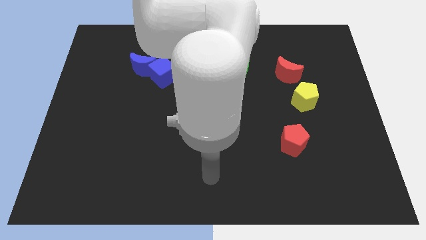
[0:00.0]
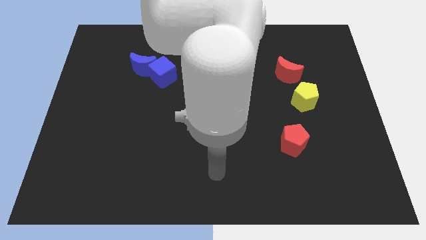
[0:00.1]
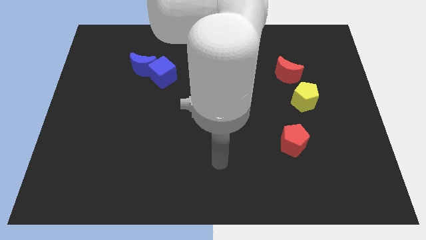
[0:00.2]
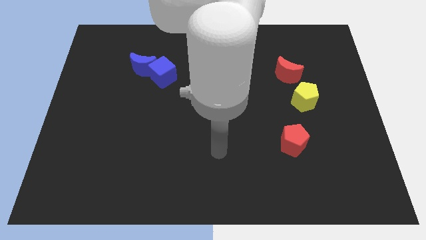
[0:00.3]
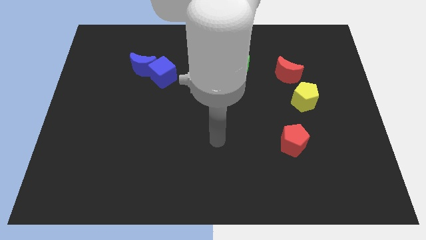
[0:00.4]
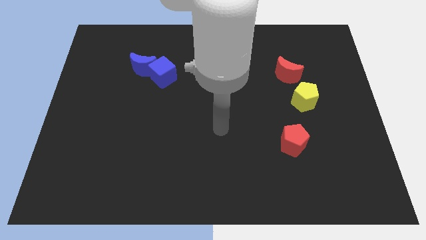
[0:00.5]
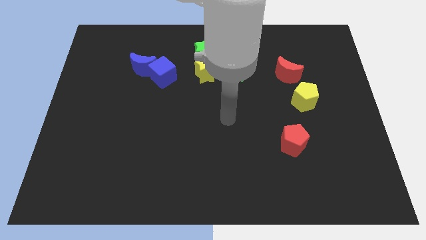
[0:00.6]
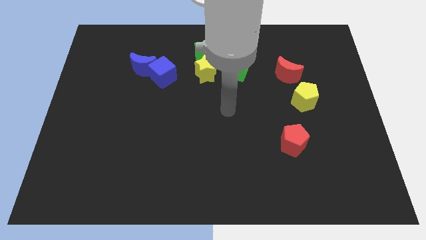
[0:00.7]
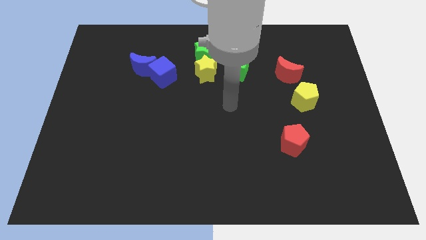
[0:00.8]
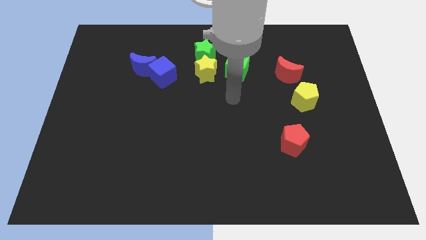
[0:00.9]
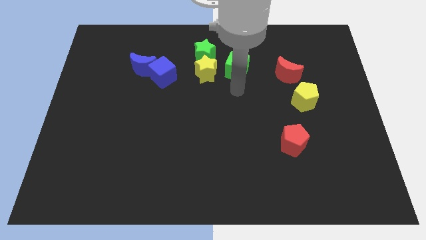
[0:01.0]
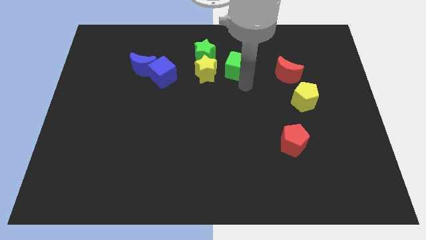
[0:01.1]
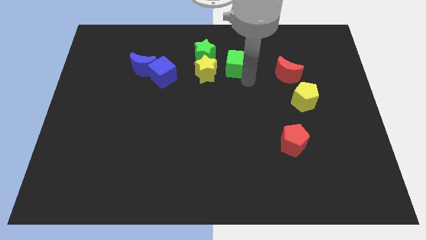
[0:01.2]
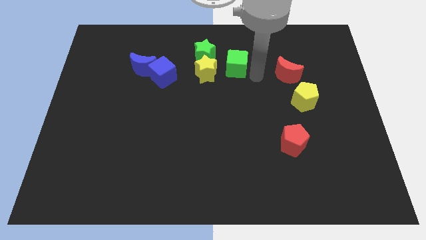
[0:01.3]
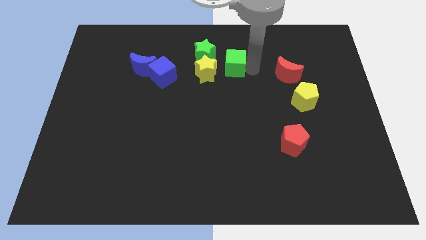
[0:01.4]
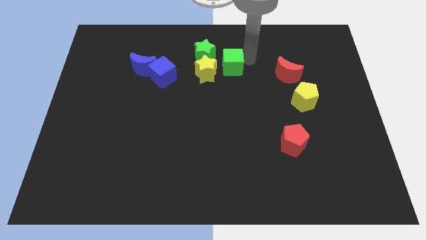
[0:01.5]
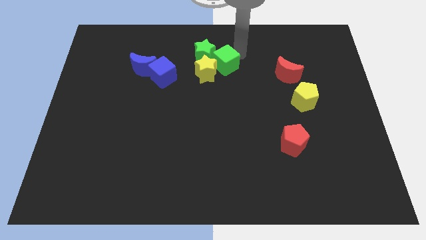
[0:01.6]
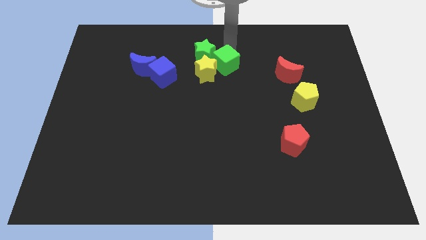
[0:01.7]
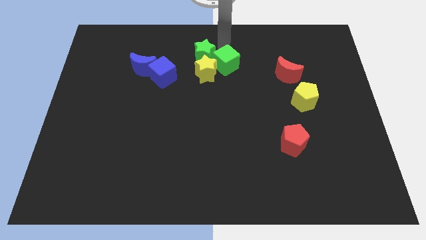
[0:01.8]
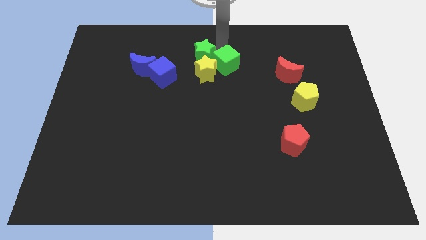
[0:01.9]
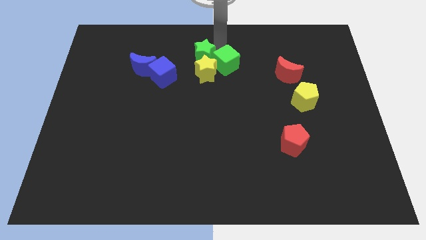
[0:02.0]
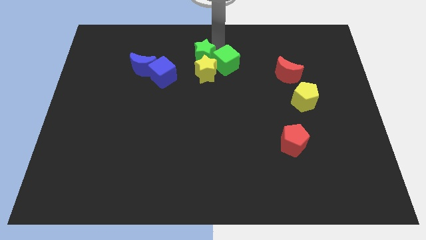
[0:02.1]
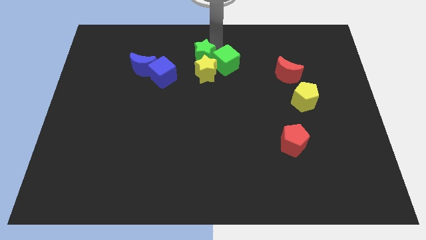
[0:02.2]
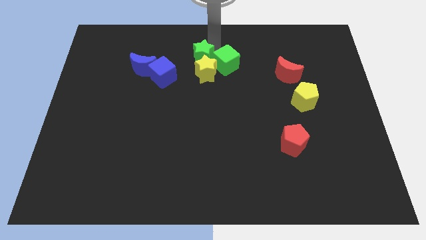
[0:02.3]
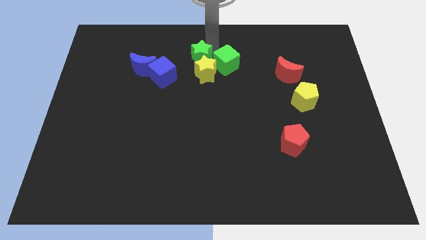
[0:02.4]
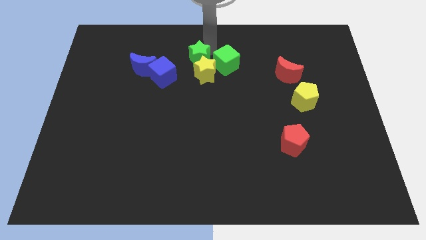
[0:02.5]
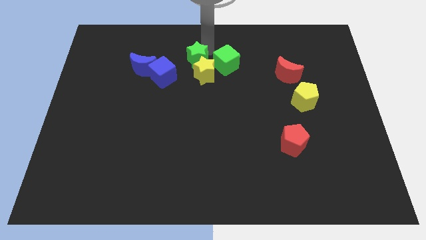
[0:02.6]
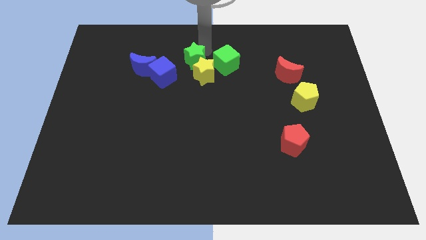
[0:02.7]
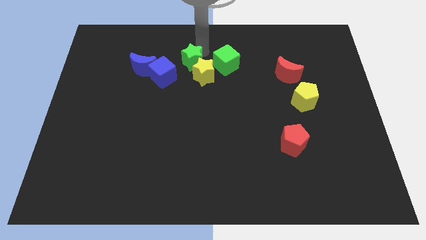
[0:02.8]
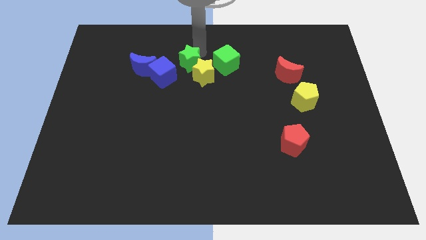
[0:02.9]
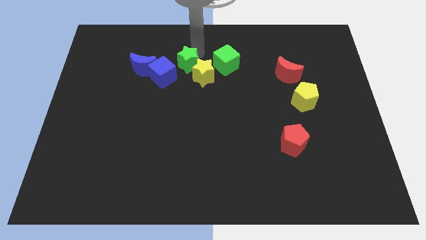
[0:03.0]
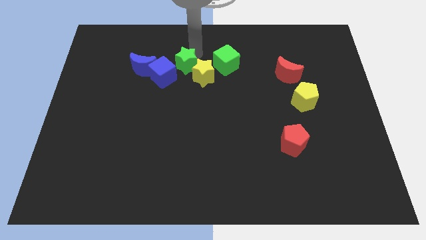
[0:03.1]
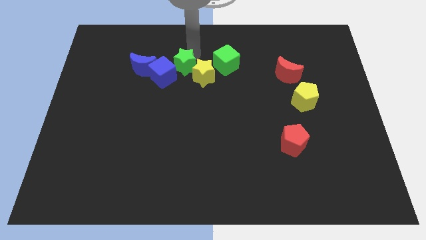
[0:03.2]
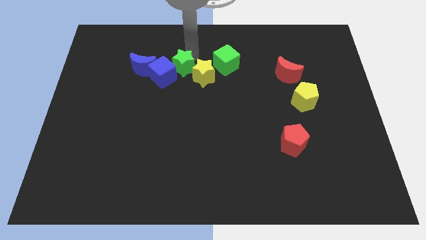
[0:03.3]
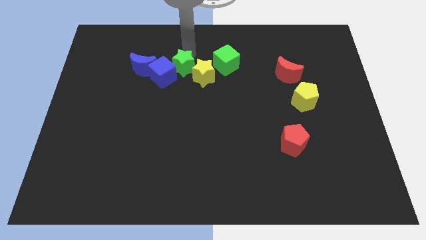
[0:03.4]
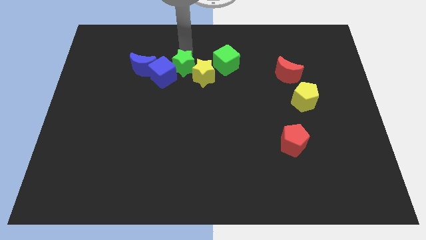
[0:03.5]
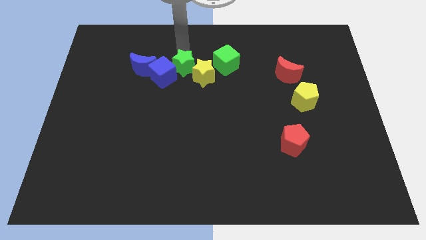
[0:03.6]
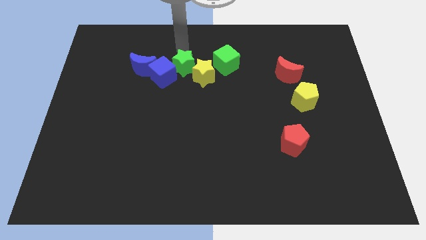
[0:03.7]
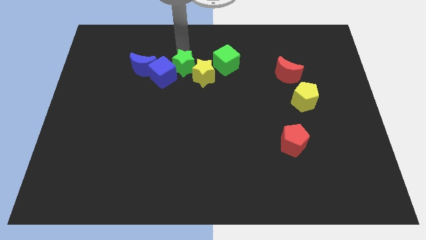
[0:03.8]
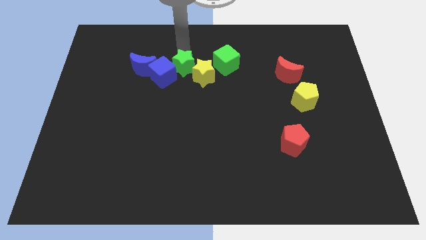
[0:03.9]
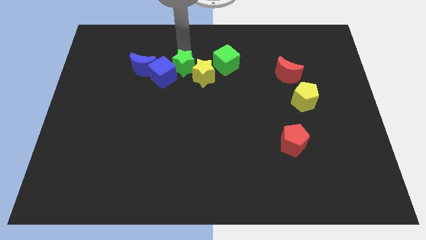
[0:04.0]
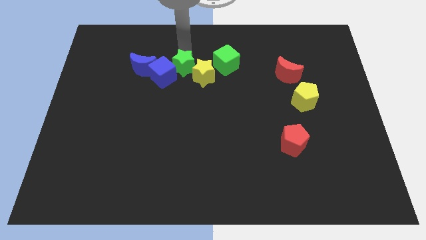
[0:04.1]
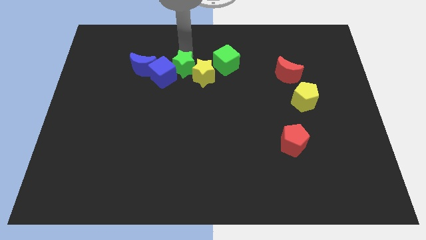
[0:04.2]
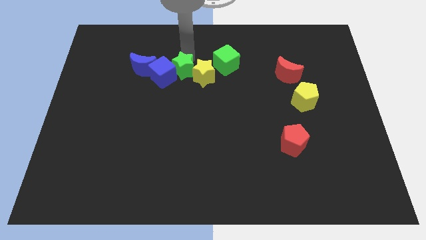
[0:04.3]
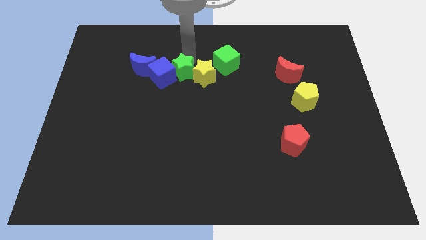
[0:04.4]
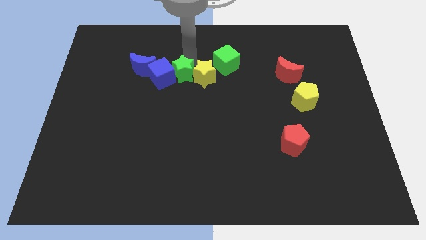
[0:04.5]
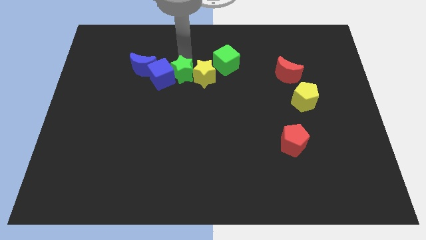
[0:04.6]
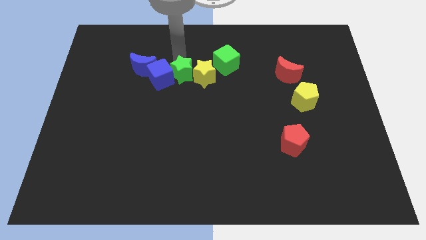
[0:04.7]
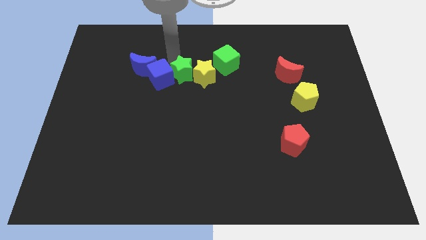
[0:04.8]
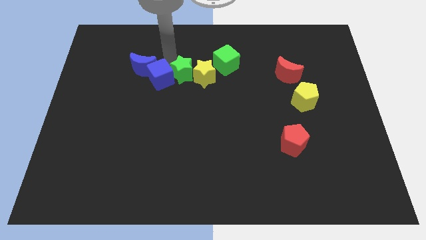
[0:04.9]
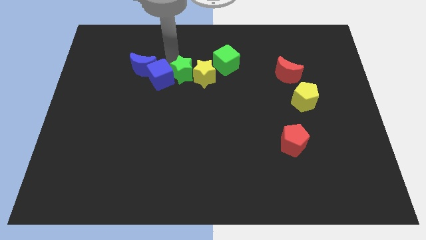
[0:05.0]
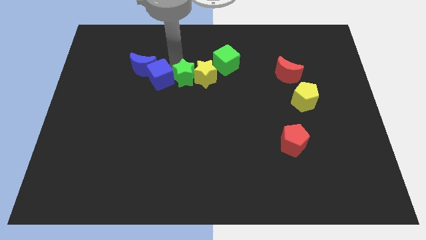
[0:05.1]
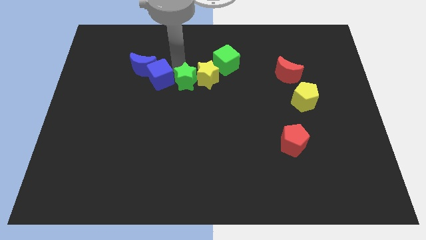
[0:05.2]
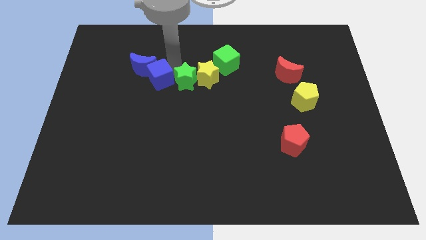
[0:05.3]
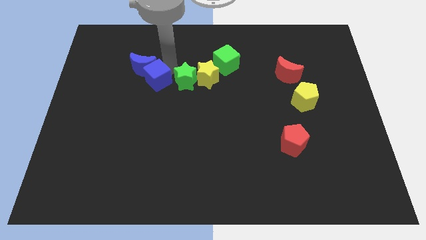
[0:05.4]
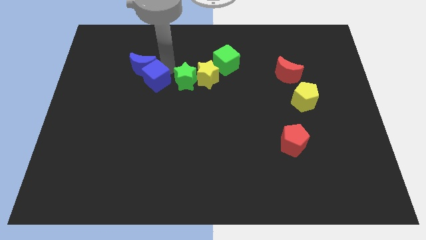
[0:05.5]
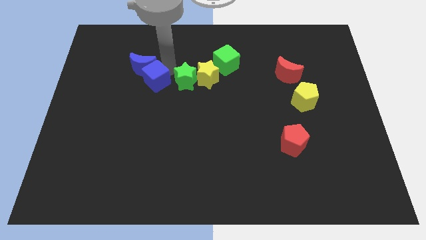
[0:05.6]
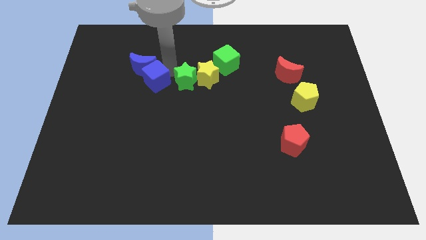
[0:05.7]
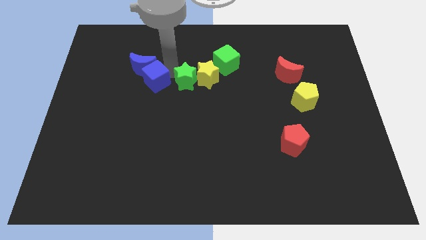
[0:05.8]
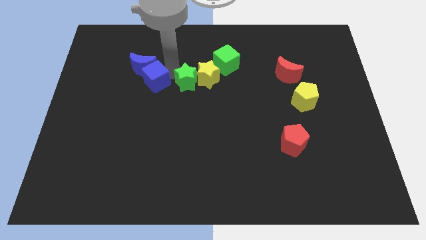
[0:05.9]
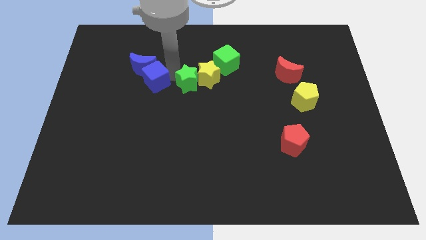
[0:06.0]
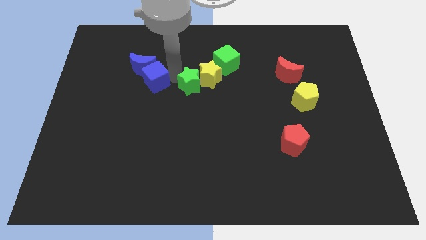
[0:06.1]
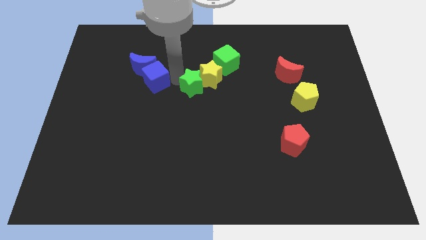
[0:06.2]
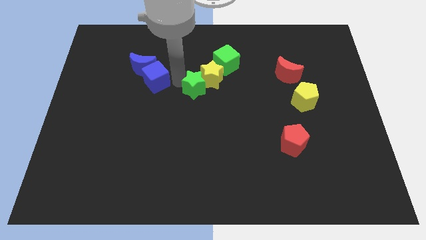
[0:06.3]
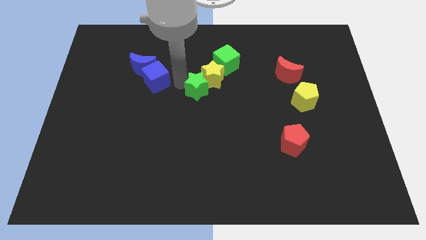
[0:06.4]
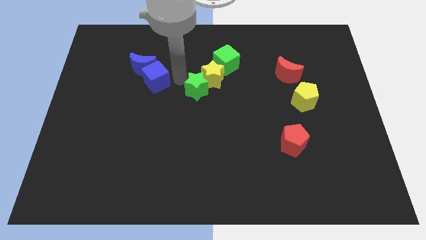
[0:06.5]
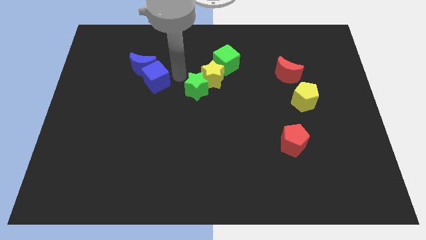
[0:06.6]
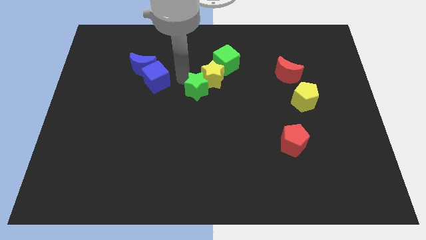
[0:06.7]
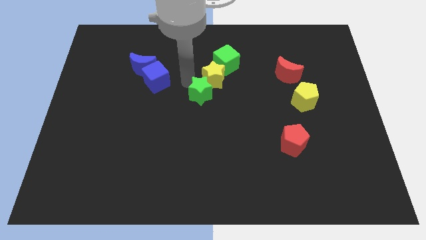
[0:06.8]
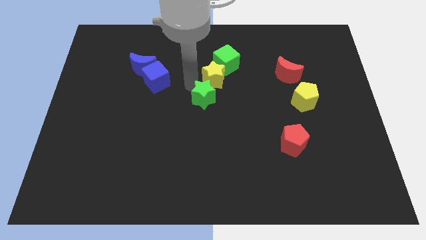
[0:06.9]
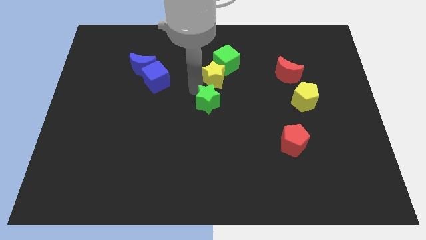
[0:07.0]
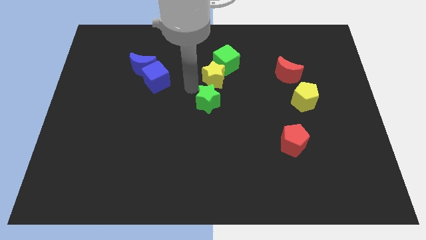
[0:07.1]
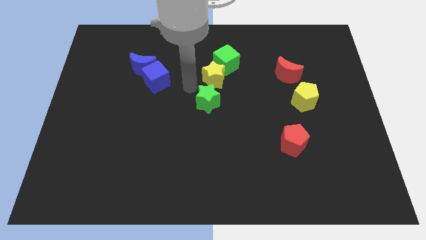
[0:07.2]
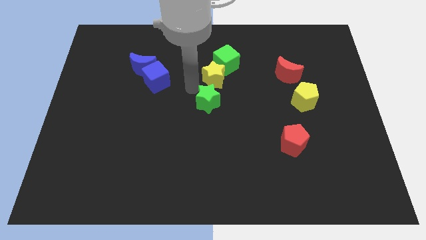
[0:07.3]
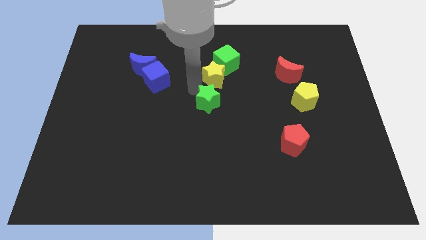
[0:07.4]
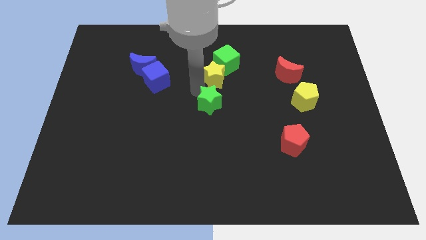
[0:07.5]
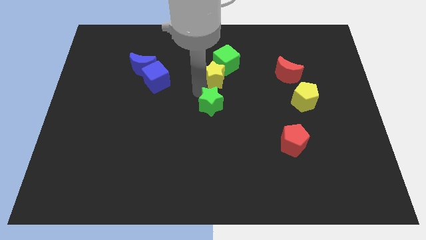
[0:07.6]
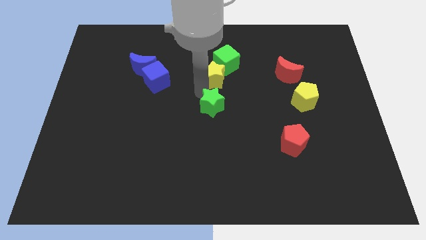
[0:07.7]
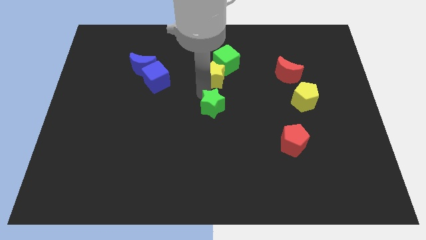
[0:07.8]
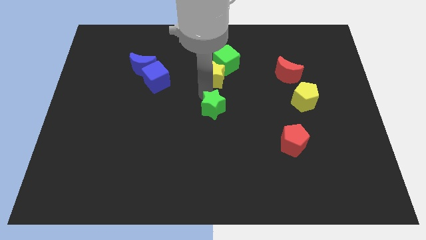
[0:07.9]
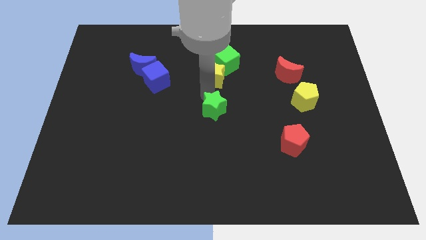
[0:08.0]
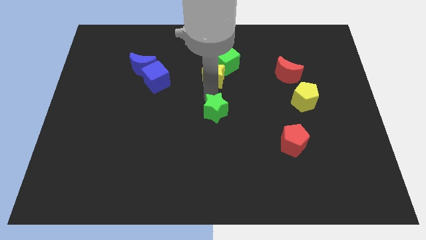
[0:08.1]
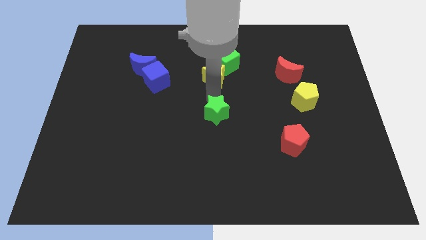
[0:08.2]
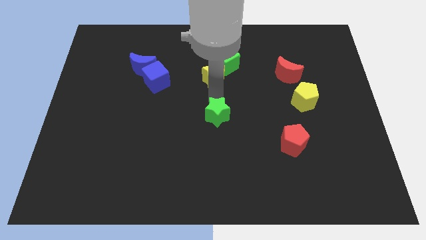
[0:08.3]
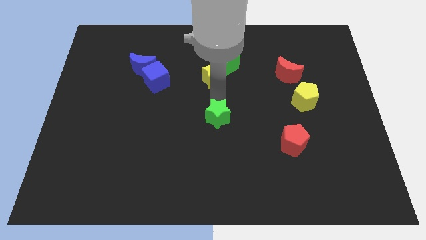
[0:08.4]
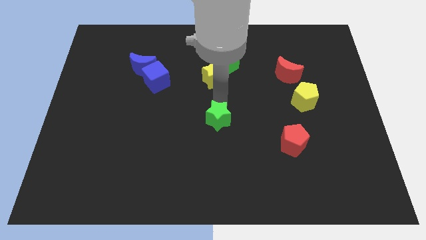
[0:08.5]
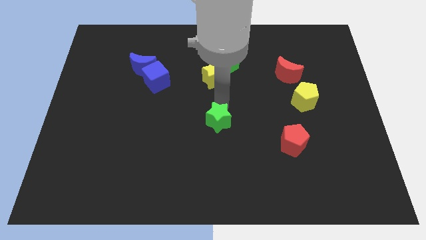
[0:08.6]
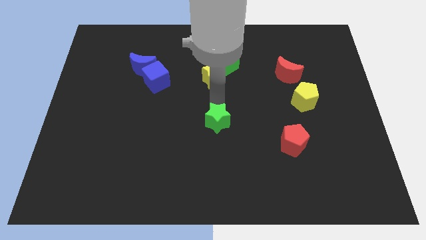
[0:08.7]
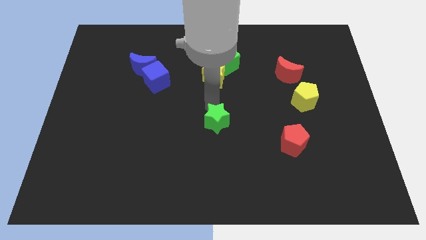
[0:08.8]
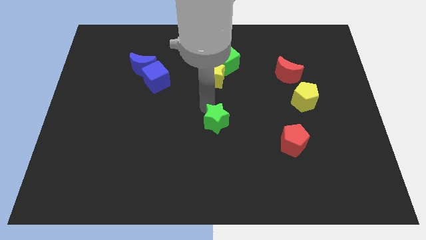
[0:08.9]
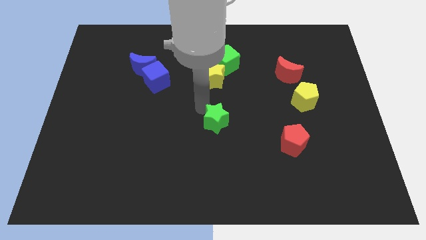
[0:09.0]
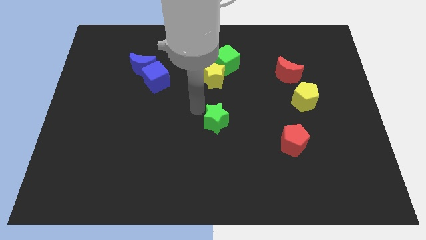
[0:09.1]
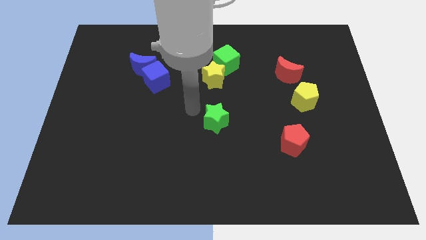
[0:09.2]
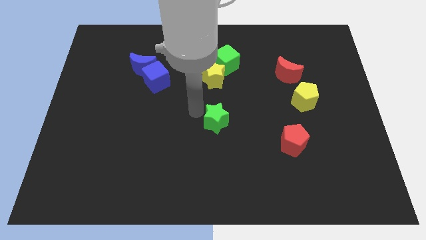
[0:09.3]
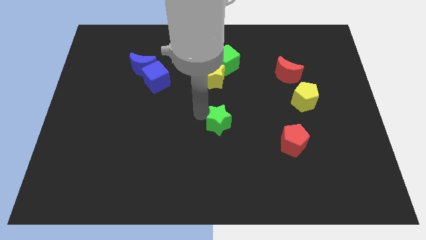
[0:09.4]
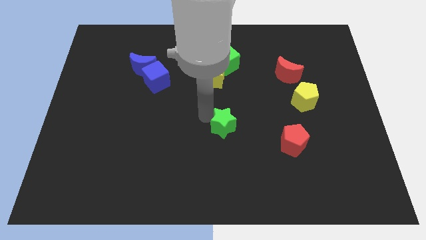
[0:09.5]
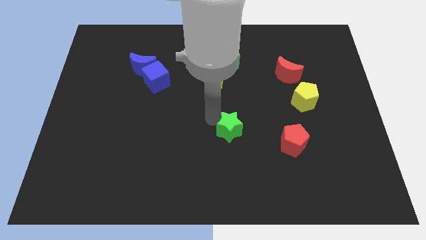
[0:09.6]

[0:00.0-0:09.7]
slide the green star to the left of the red pentagon
